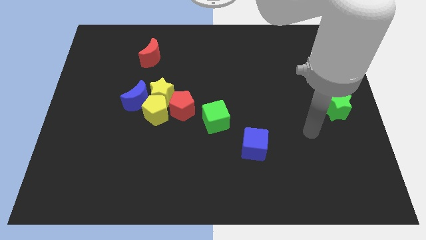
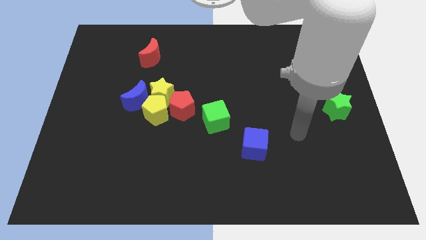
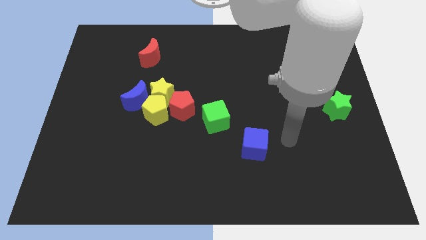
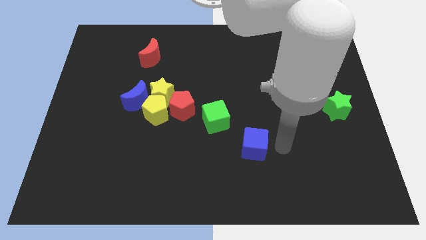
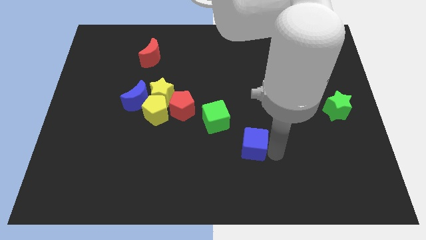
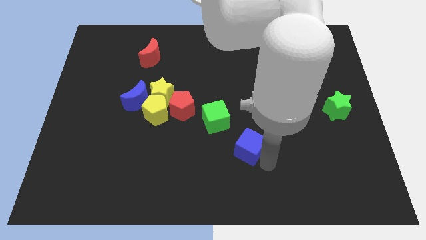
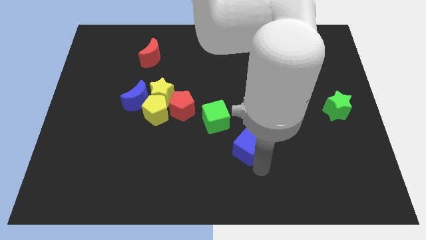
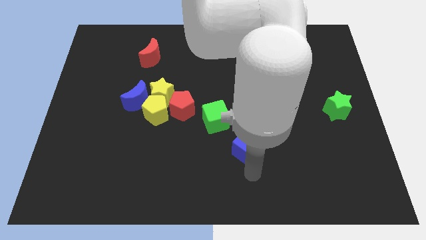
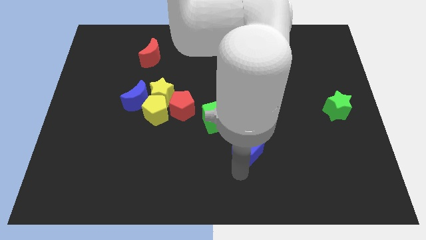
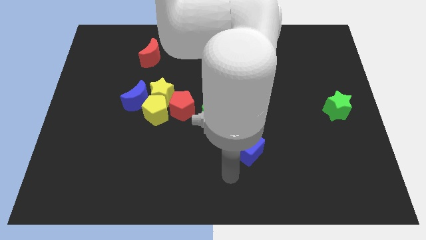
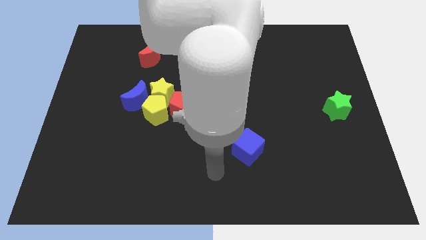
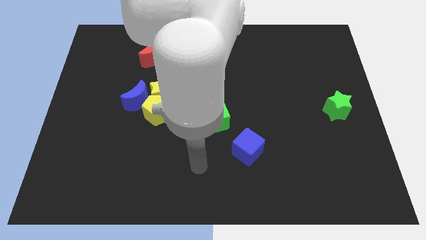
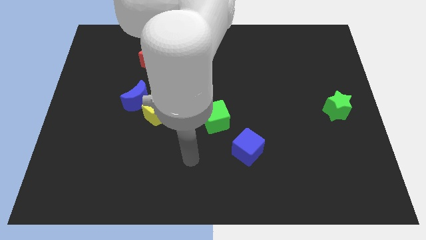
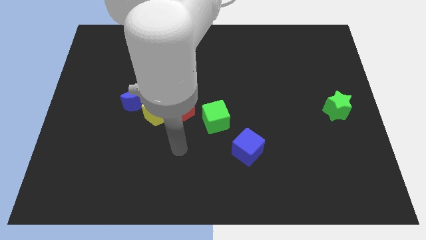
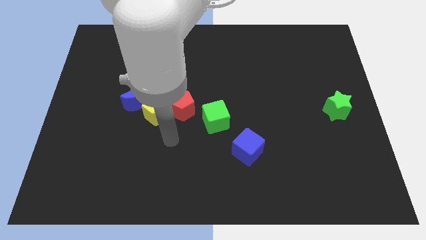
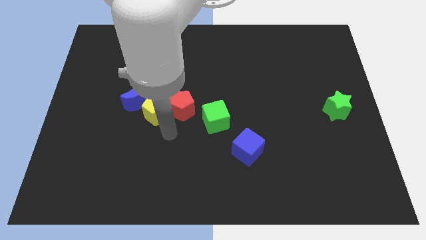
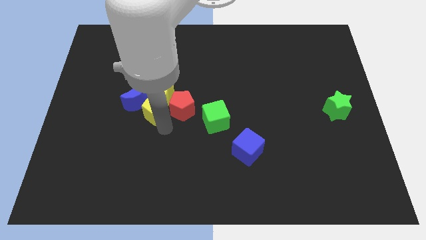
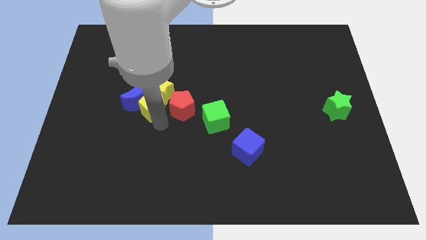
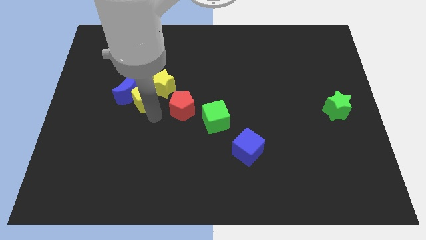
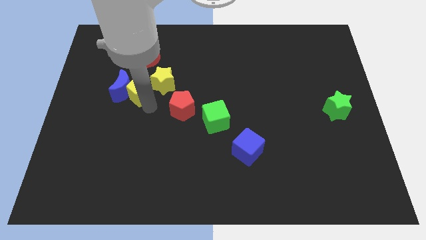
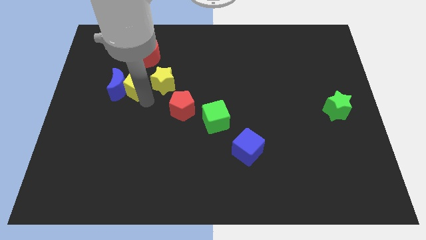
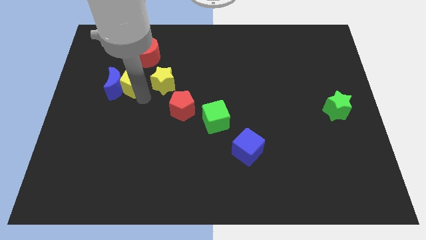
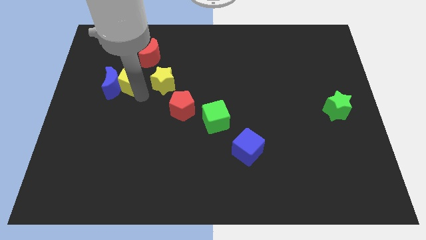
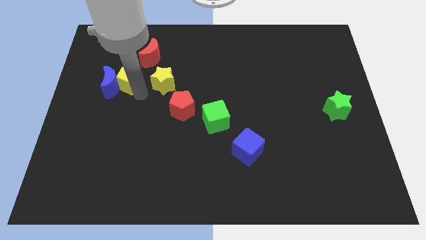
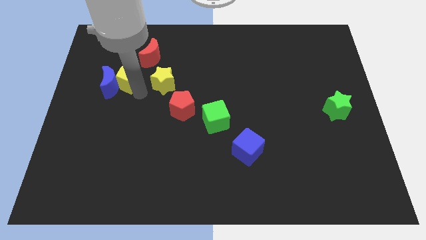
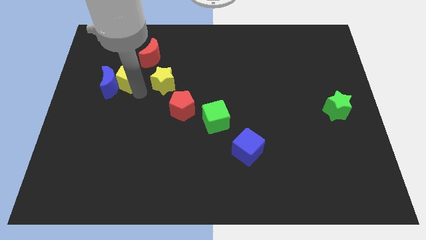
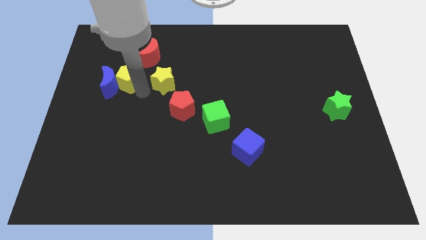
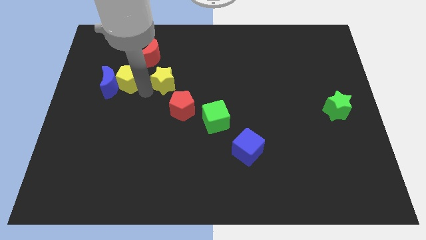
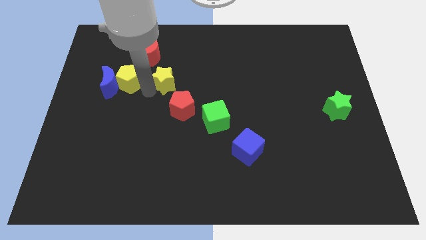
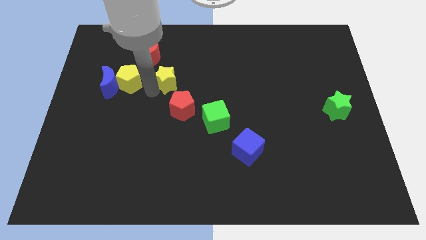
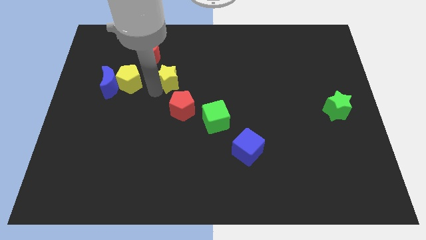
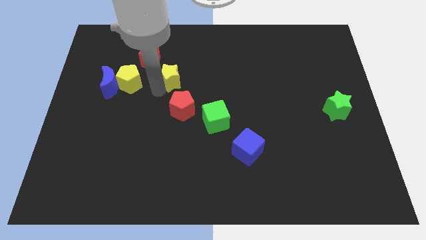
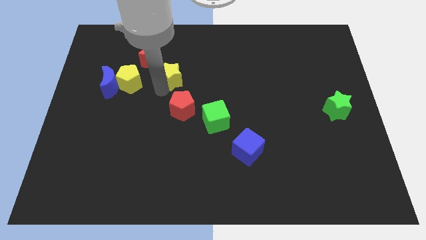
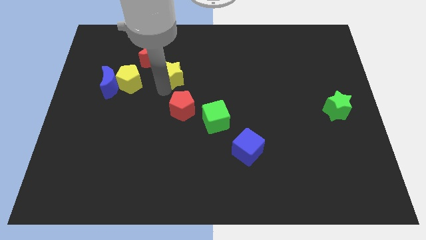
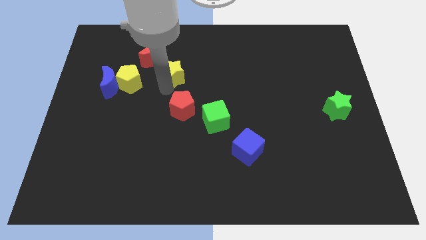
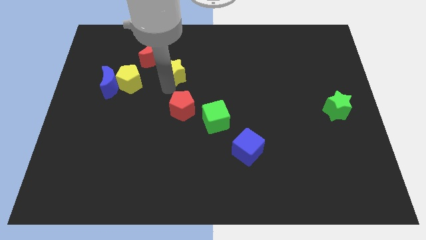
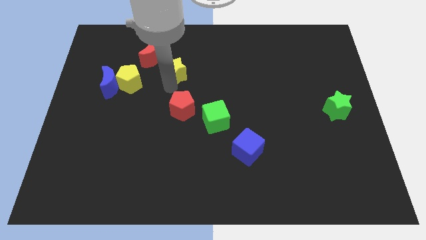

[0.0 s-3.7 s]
pull the yellow star apart from the clump

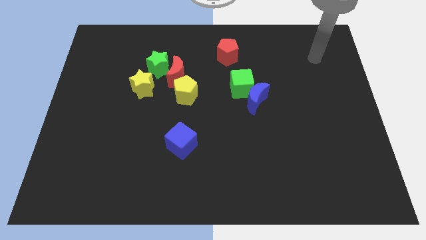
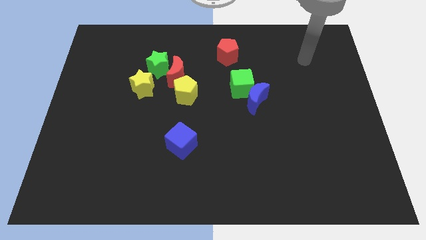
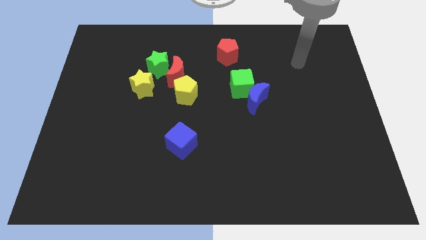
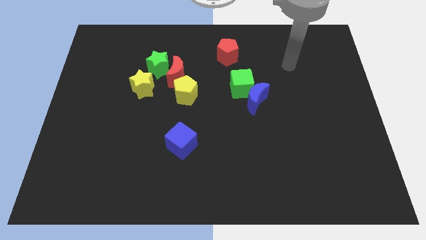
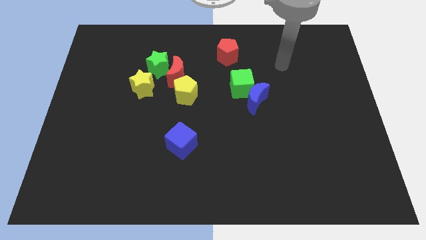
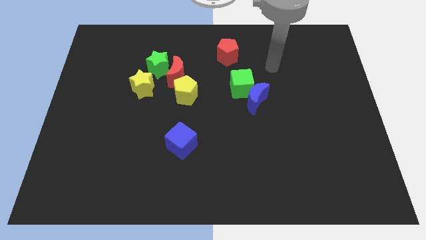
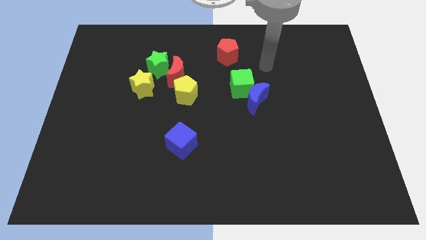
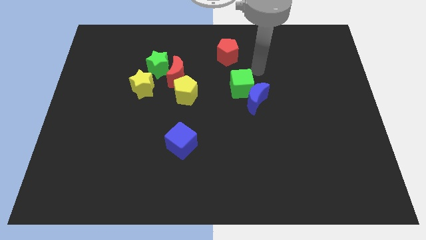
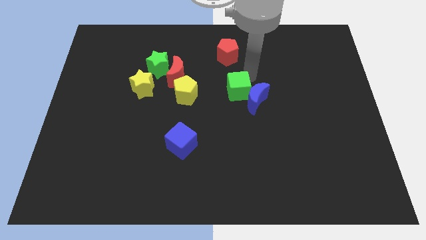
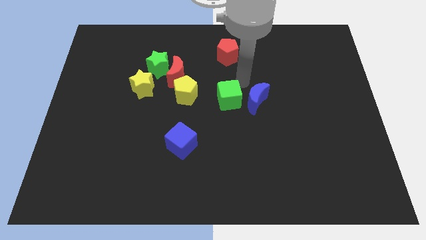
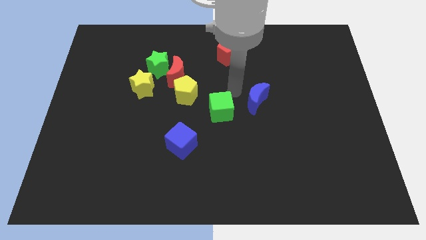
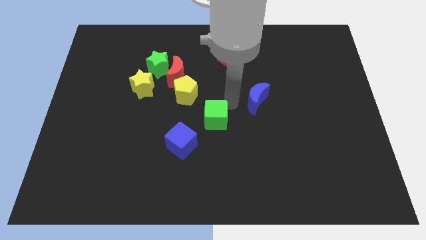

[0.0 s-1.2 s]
separate the blue moon from the green cube

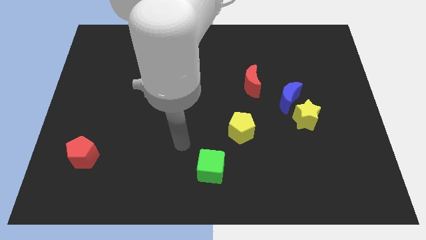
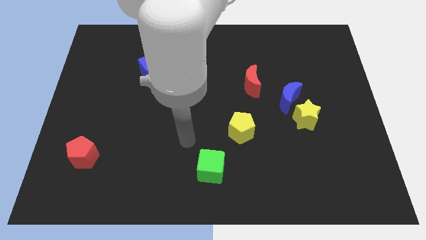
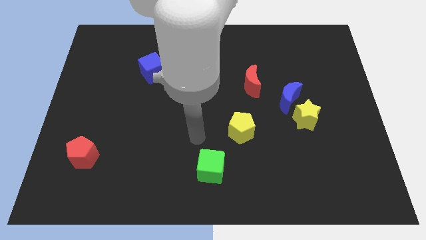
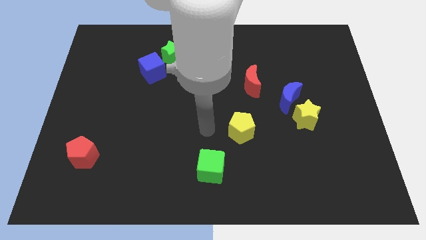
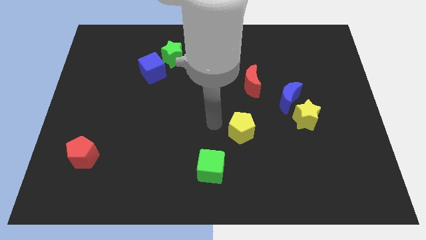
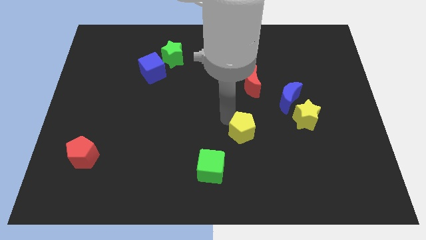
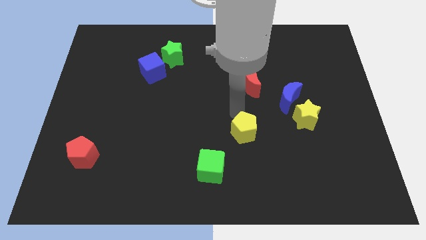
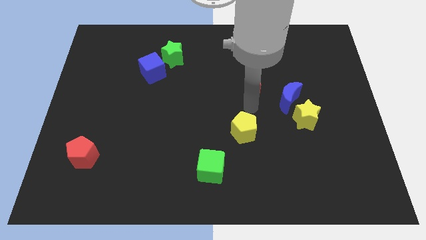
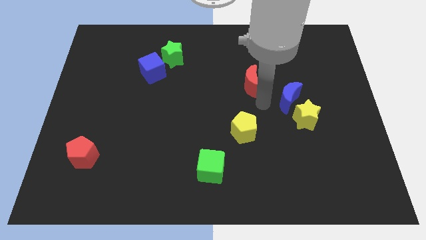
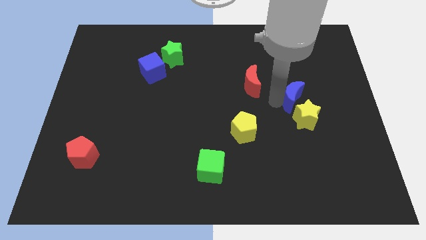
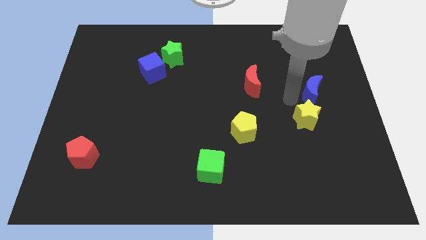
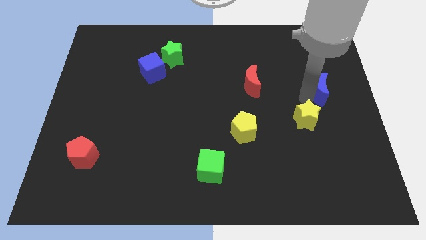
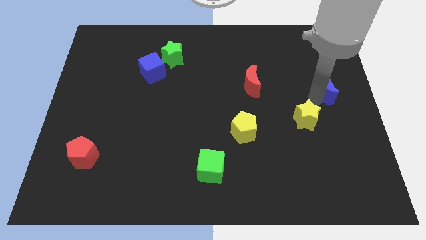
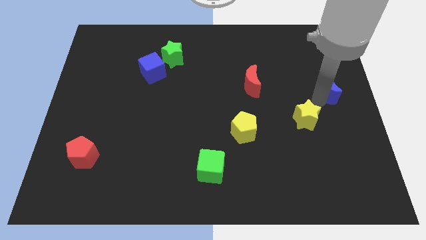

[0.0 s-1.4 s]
separate the yellow star from the blue moon

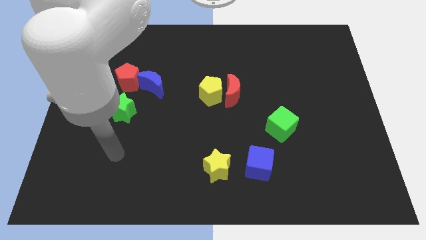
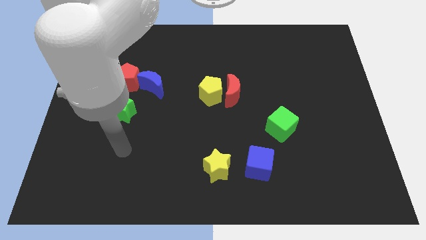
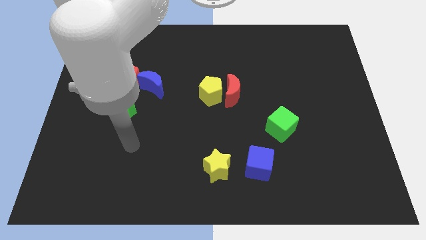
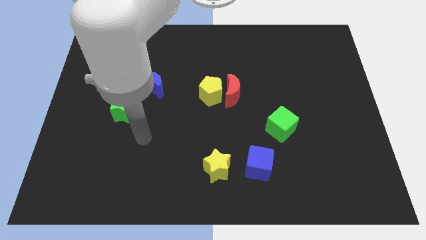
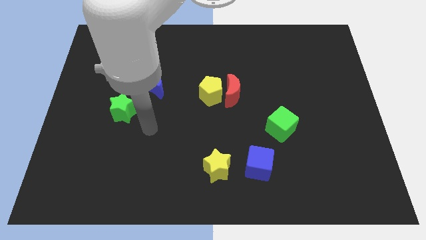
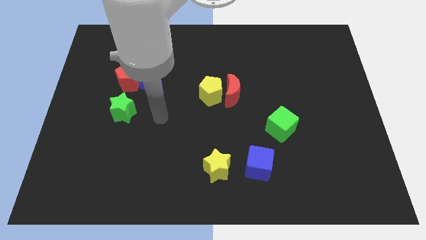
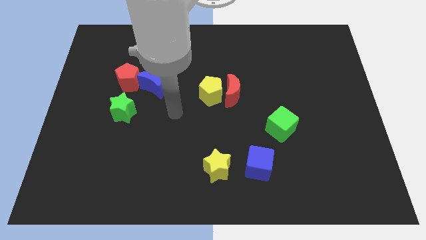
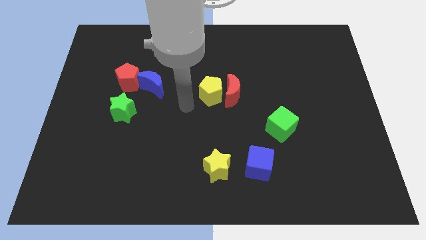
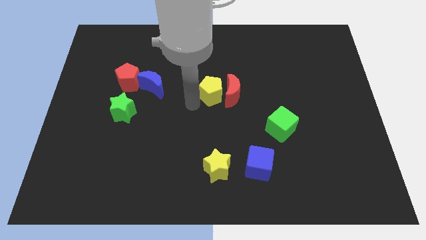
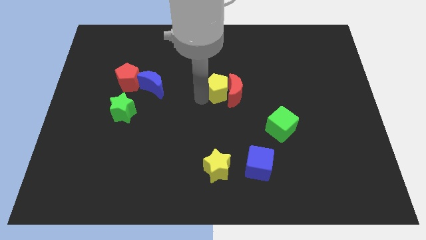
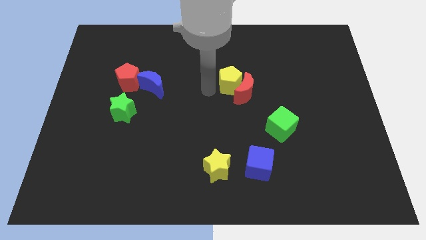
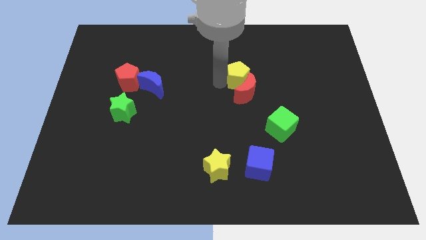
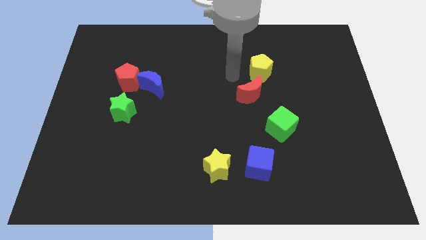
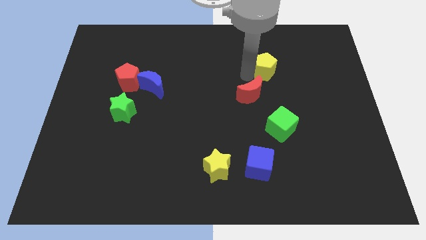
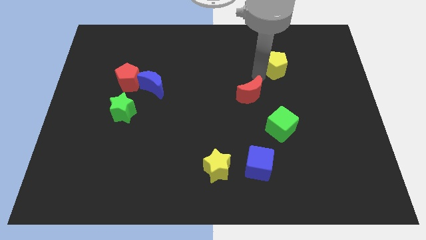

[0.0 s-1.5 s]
move the red moon away from the yellow pentagon

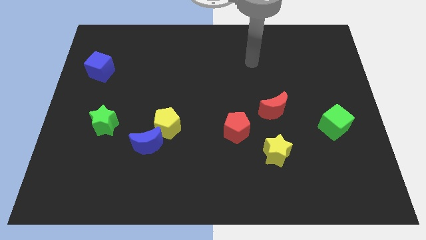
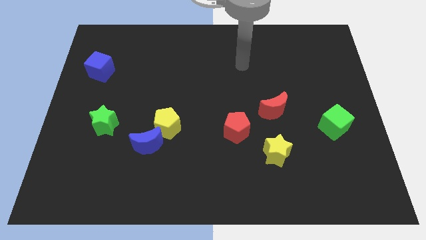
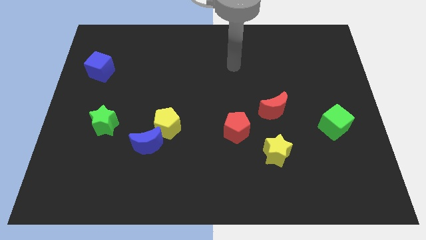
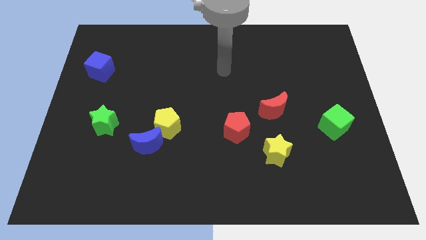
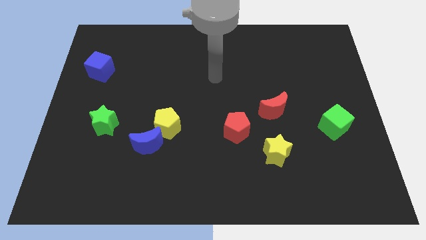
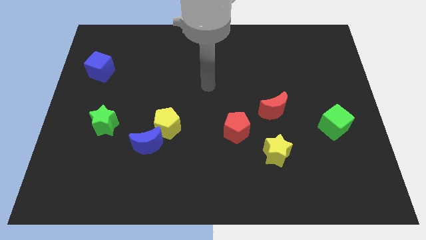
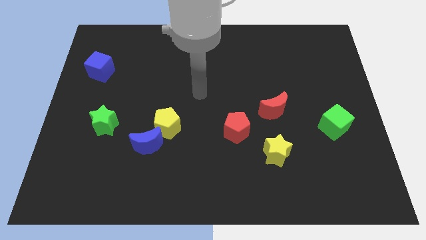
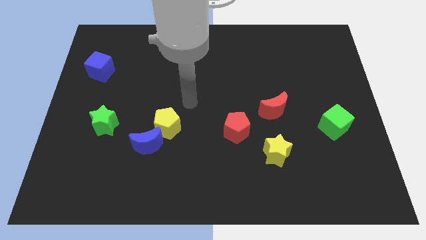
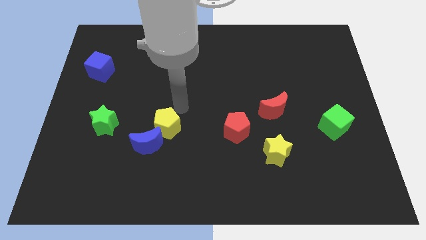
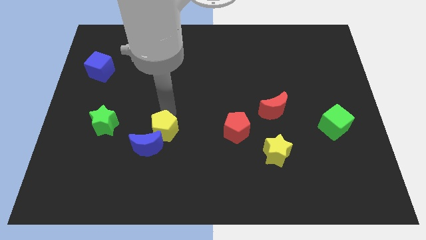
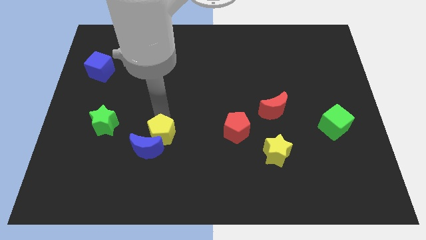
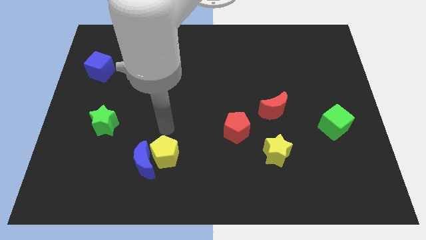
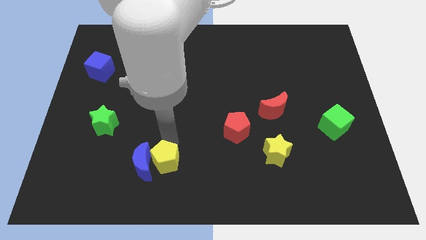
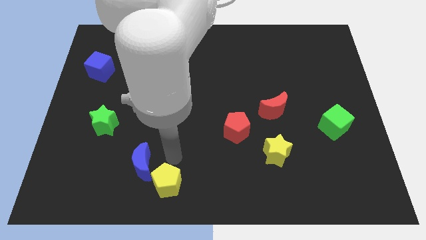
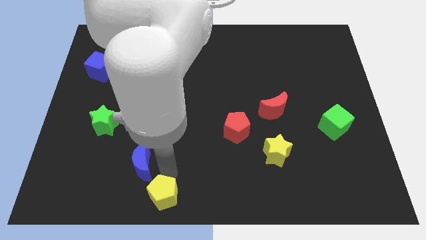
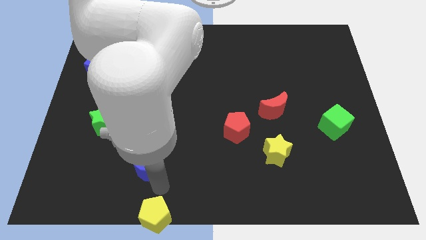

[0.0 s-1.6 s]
move the blue moon away from the yellow pentagon
